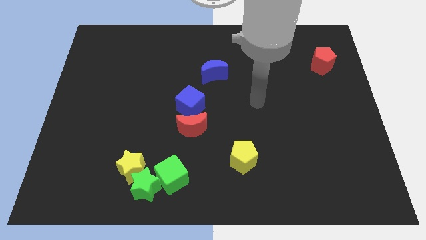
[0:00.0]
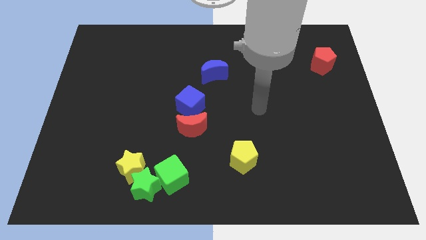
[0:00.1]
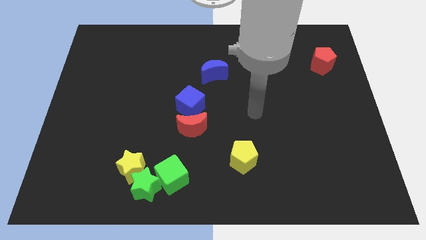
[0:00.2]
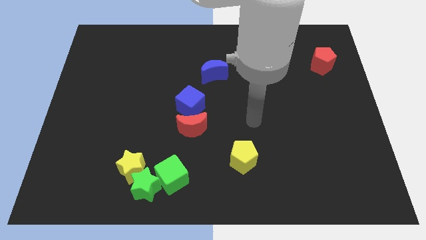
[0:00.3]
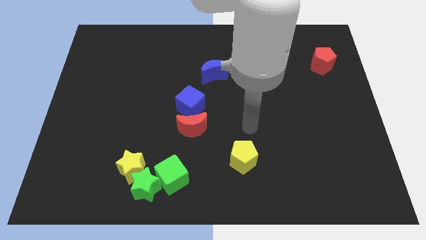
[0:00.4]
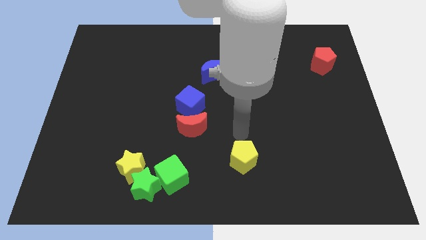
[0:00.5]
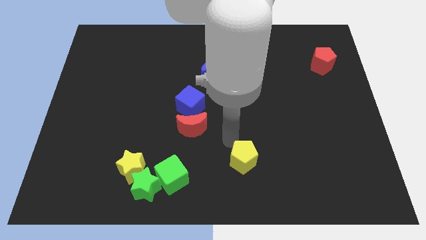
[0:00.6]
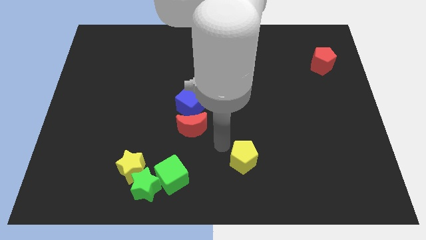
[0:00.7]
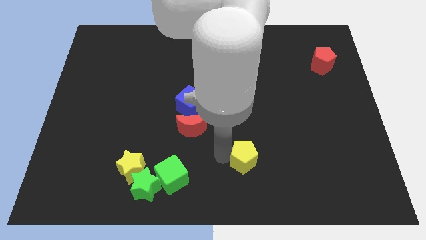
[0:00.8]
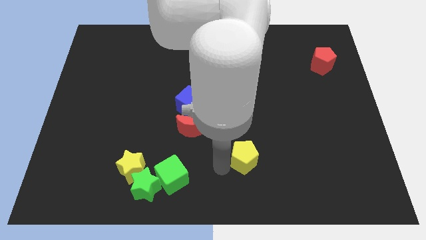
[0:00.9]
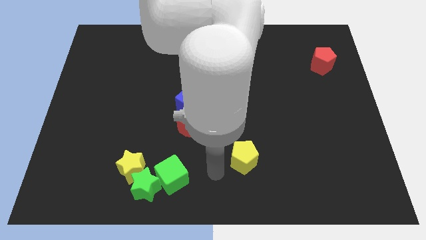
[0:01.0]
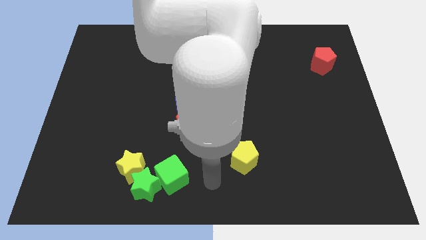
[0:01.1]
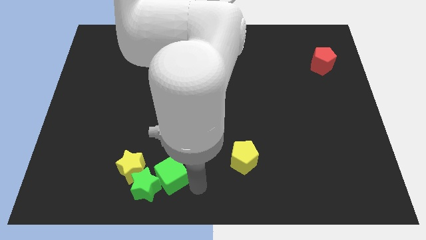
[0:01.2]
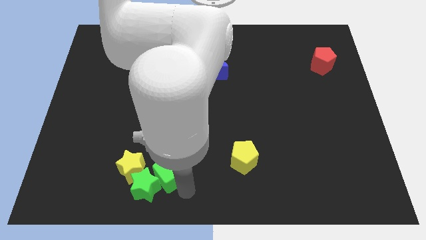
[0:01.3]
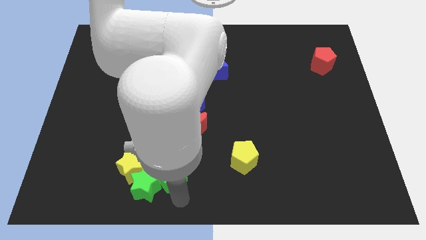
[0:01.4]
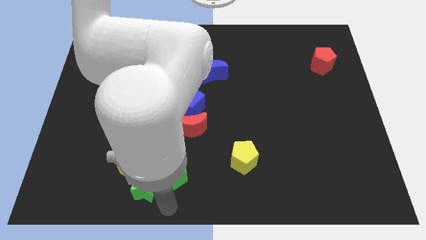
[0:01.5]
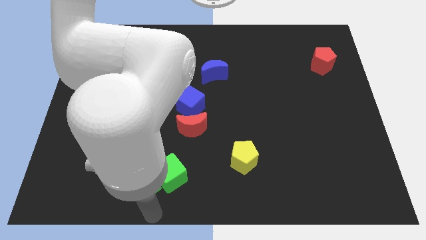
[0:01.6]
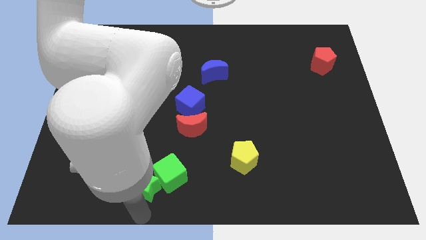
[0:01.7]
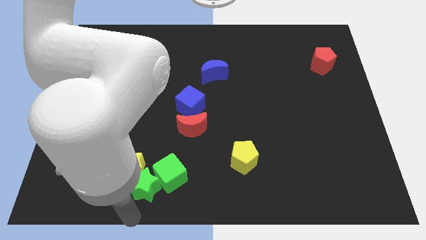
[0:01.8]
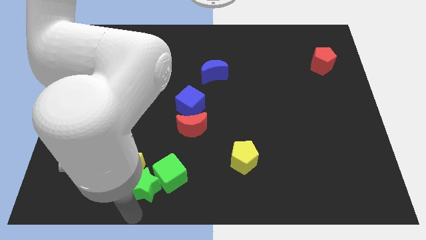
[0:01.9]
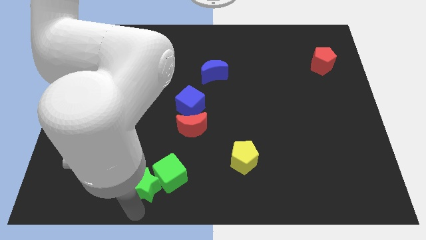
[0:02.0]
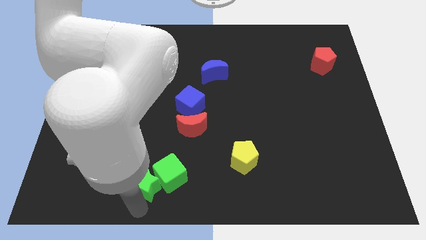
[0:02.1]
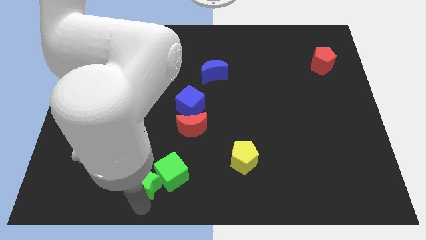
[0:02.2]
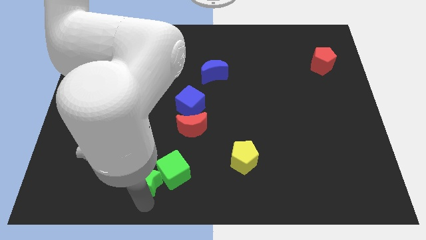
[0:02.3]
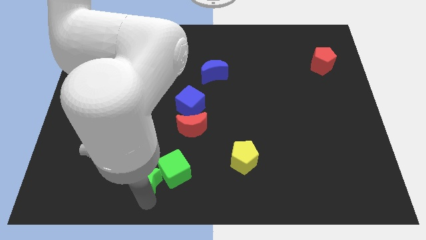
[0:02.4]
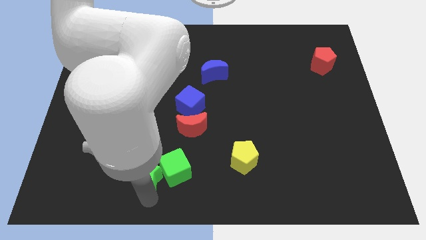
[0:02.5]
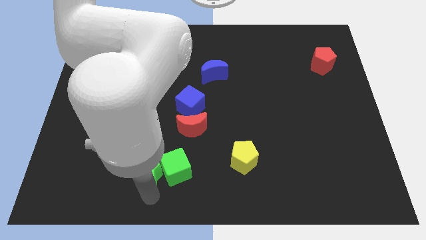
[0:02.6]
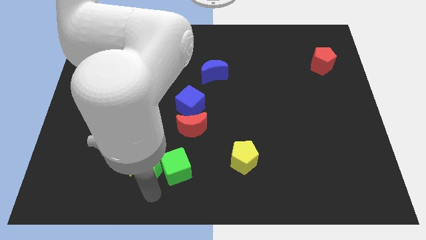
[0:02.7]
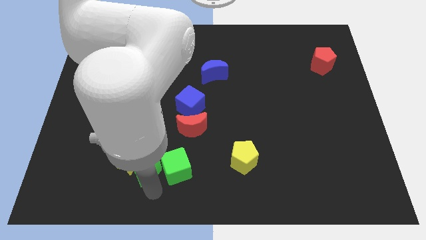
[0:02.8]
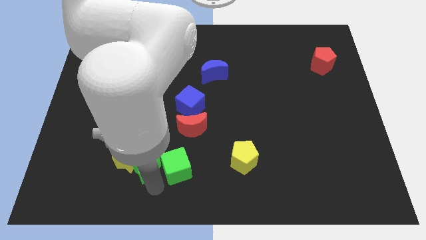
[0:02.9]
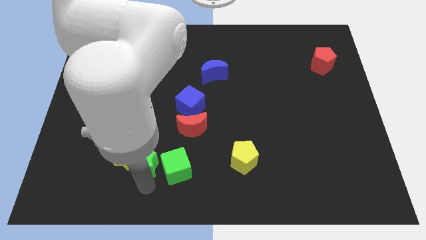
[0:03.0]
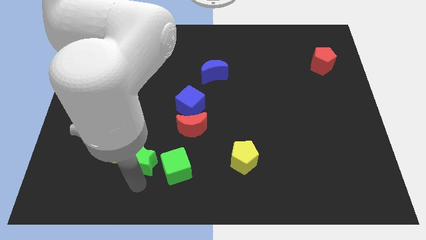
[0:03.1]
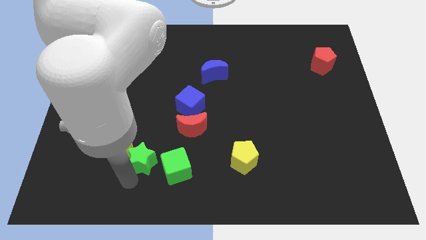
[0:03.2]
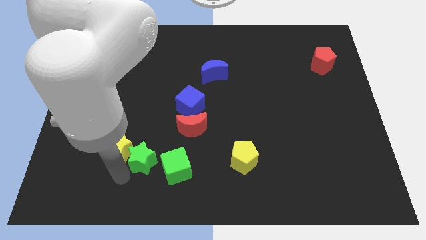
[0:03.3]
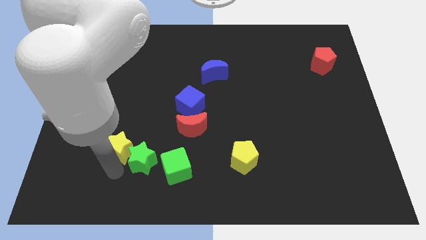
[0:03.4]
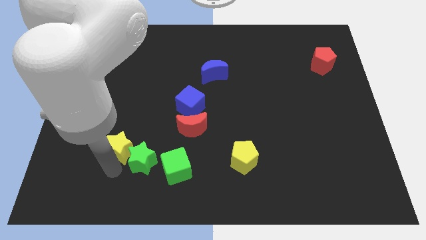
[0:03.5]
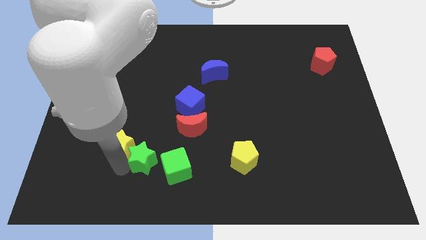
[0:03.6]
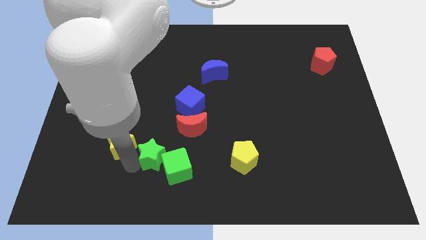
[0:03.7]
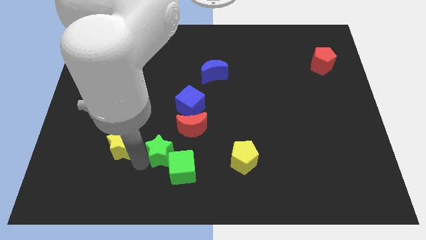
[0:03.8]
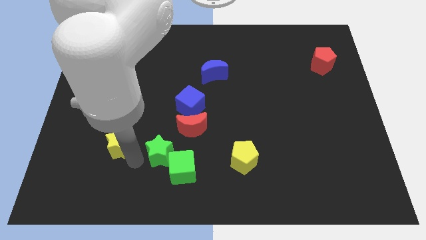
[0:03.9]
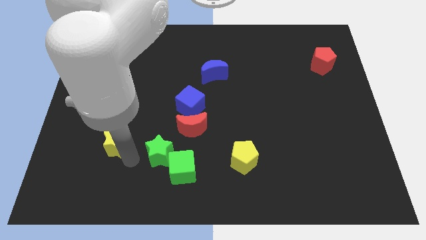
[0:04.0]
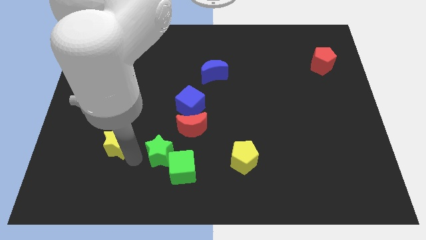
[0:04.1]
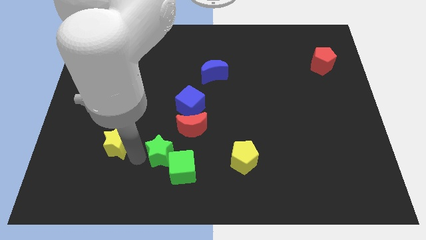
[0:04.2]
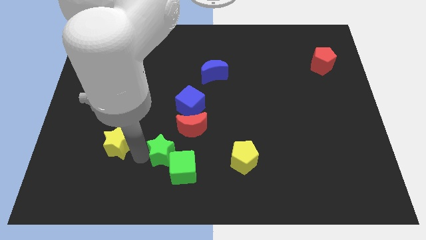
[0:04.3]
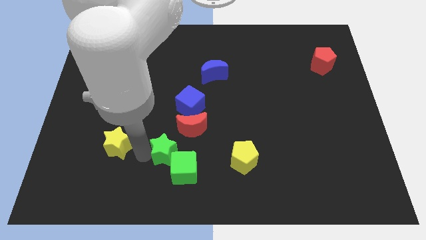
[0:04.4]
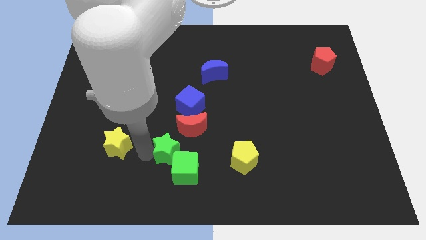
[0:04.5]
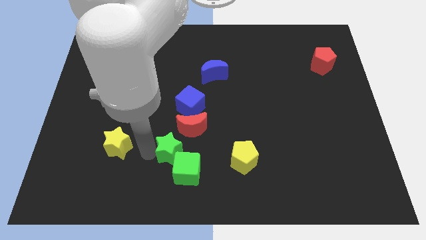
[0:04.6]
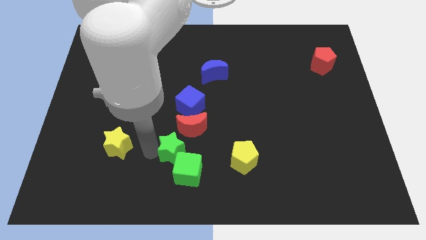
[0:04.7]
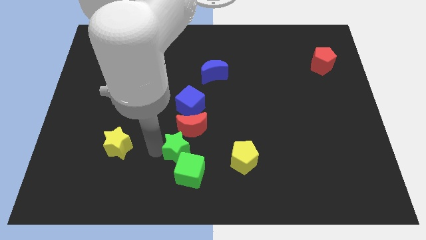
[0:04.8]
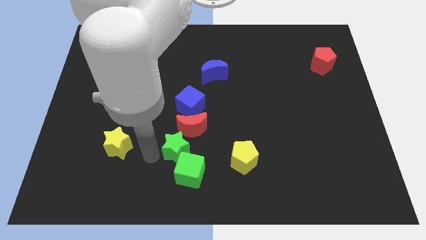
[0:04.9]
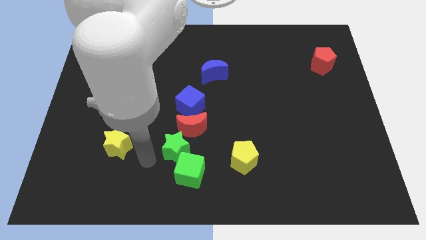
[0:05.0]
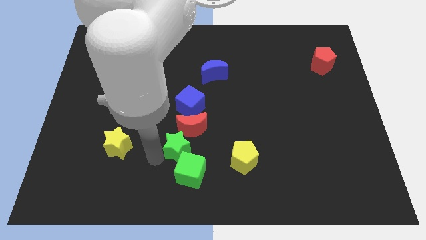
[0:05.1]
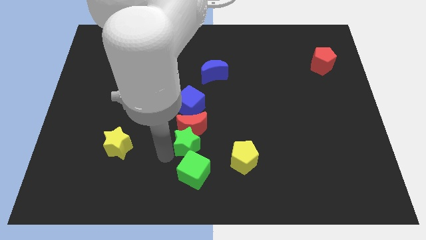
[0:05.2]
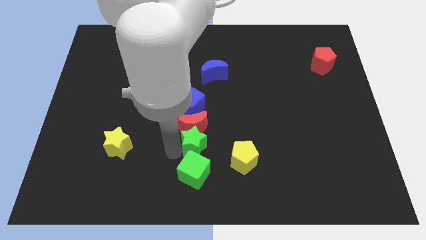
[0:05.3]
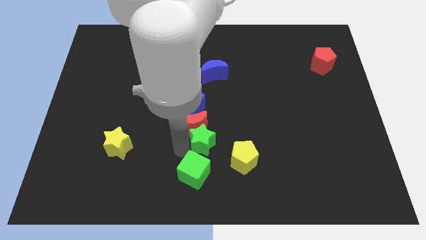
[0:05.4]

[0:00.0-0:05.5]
move the green star diagonally up and to the left of the yellow pentagon

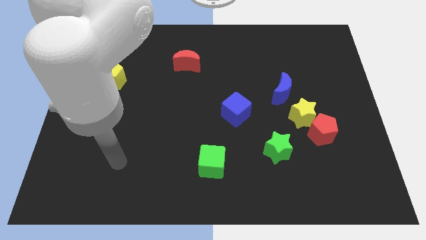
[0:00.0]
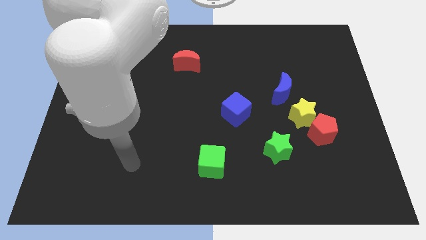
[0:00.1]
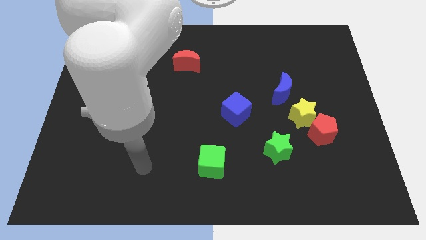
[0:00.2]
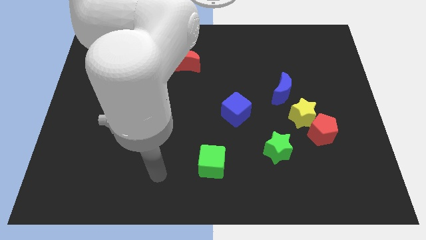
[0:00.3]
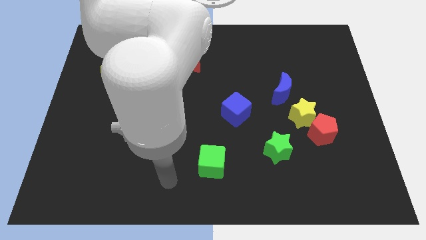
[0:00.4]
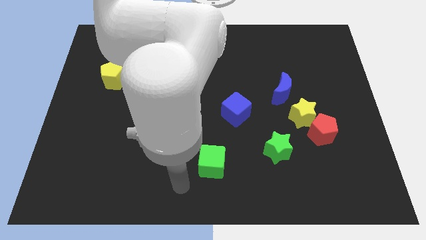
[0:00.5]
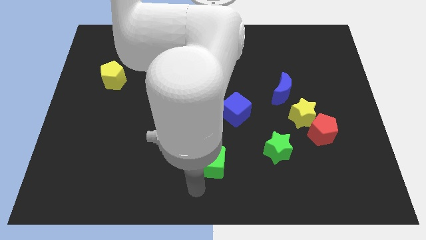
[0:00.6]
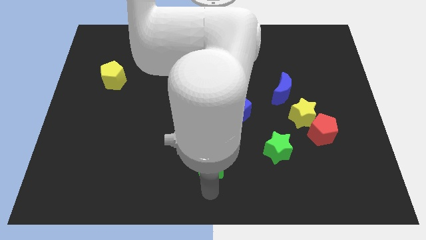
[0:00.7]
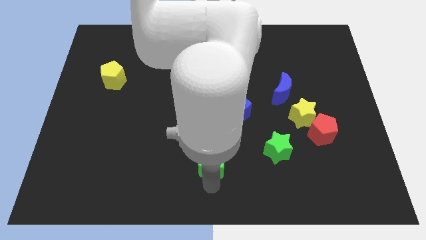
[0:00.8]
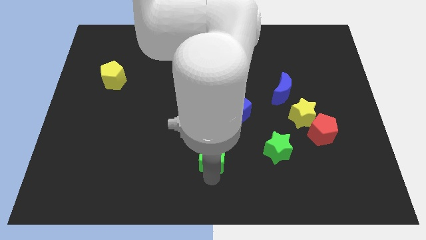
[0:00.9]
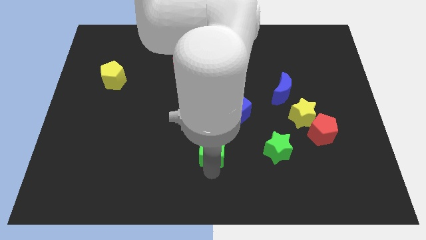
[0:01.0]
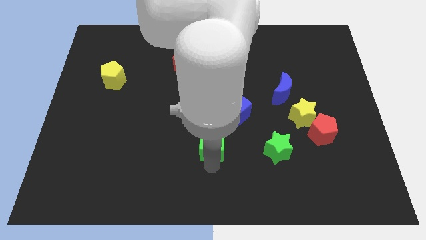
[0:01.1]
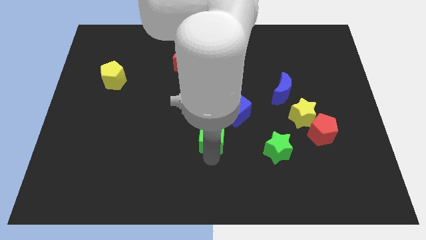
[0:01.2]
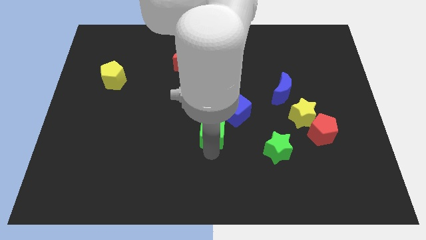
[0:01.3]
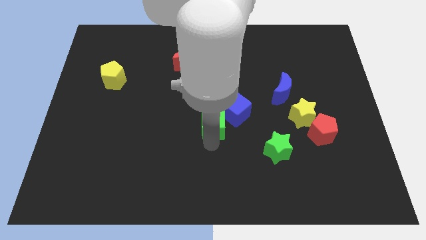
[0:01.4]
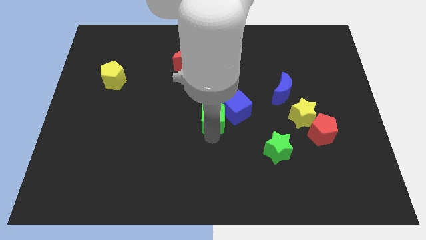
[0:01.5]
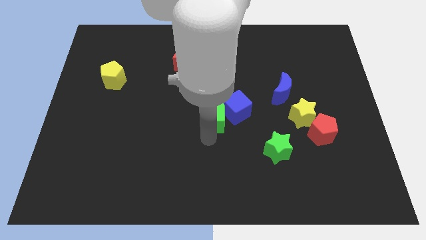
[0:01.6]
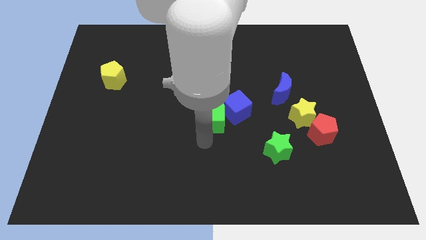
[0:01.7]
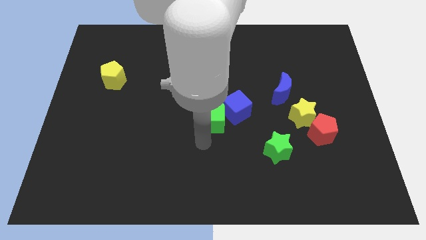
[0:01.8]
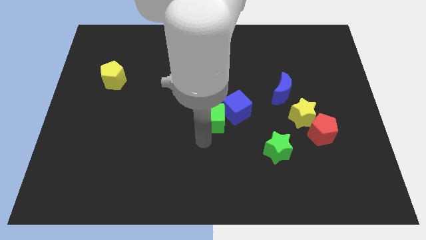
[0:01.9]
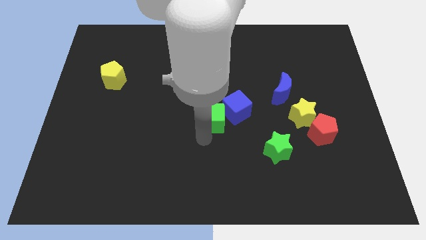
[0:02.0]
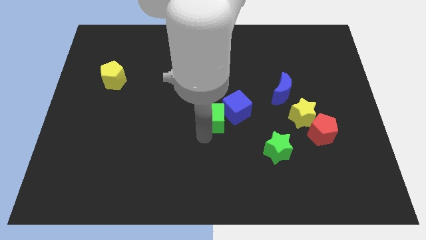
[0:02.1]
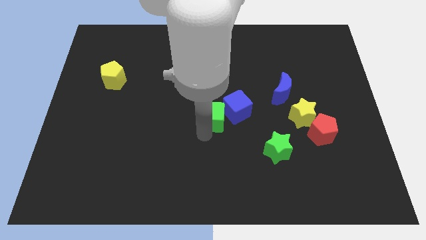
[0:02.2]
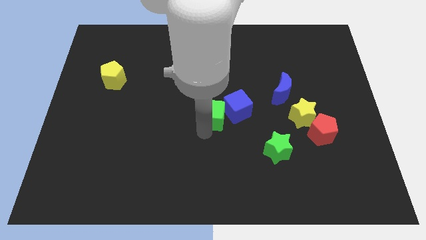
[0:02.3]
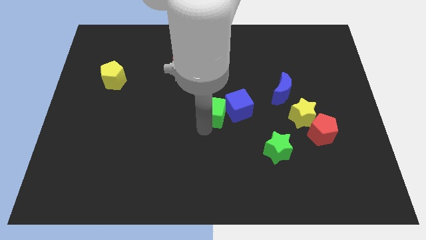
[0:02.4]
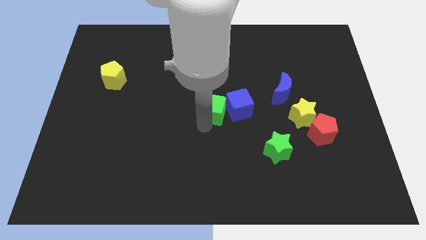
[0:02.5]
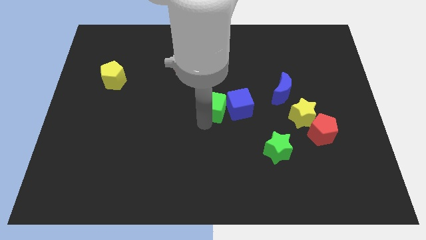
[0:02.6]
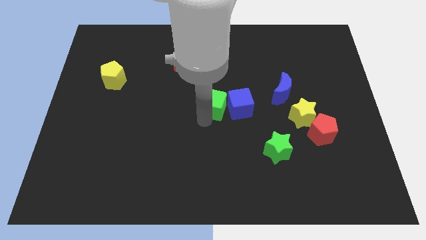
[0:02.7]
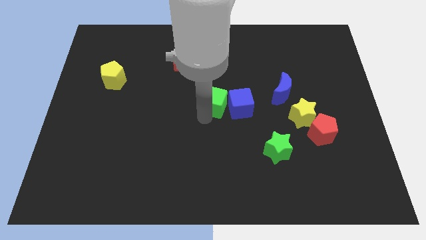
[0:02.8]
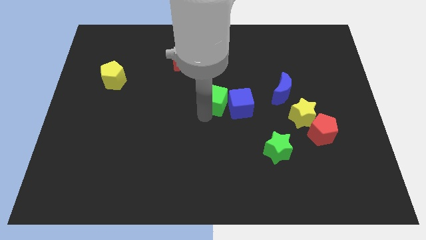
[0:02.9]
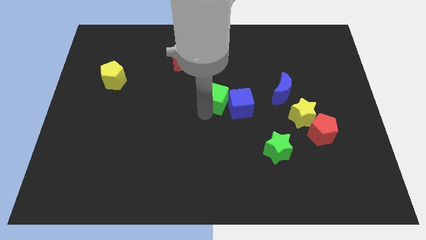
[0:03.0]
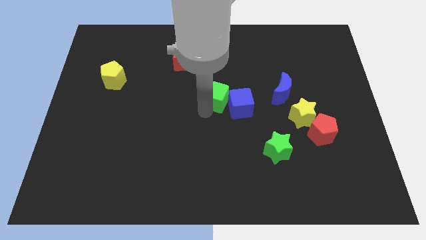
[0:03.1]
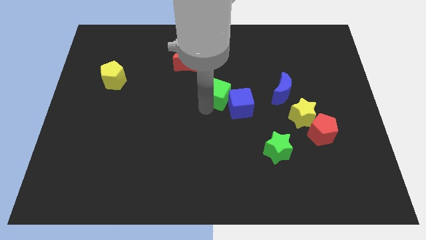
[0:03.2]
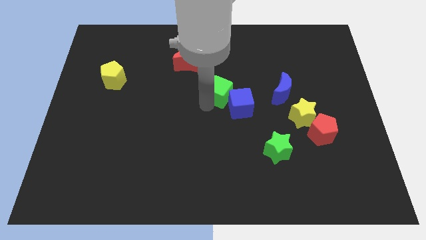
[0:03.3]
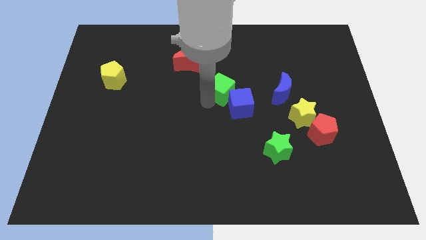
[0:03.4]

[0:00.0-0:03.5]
push the green cube above the blue cube
